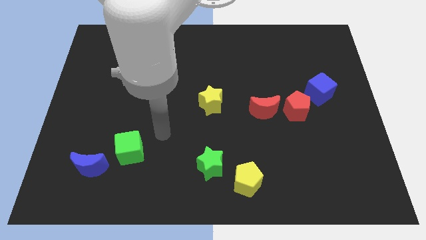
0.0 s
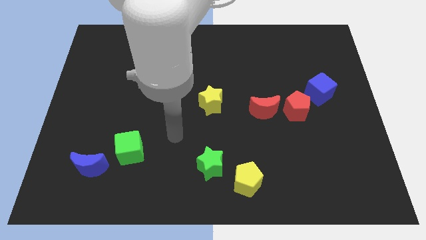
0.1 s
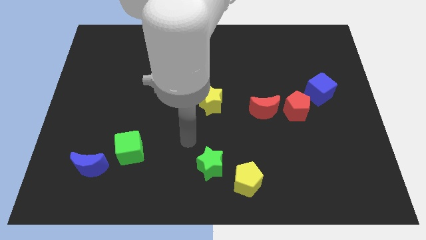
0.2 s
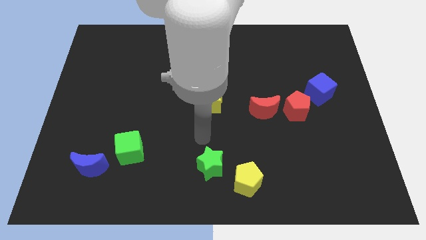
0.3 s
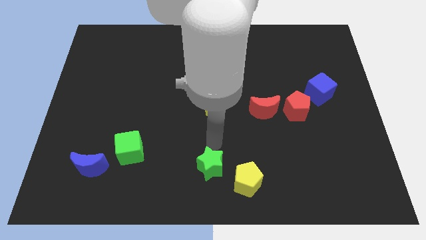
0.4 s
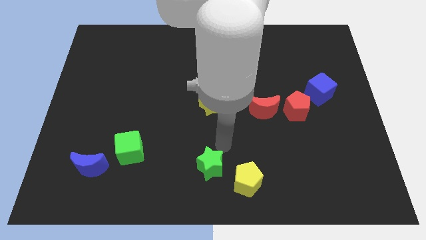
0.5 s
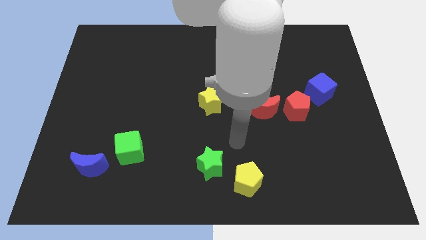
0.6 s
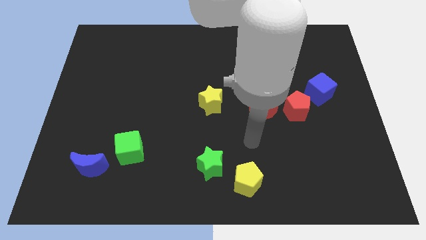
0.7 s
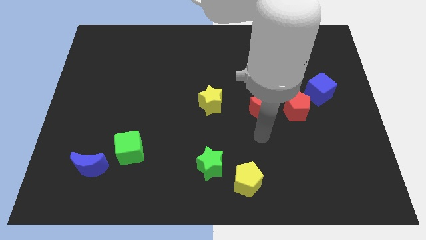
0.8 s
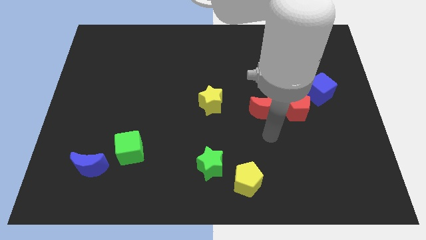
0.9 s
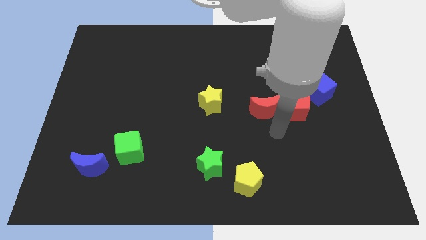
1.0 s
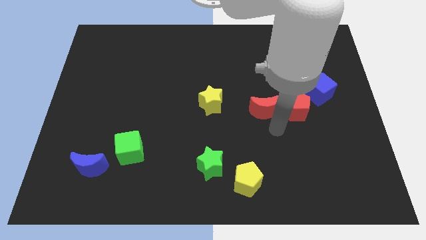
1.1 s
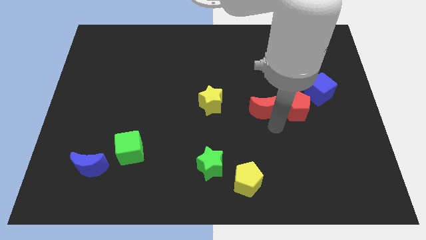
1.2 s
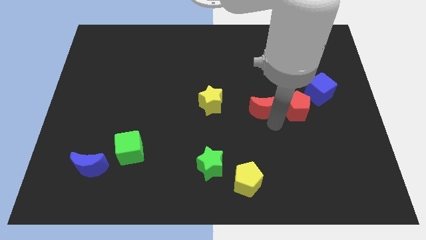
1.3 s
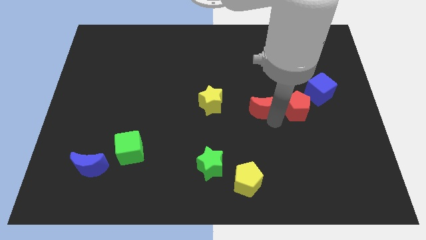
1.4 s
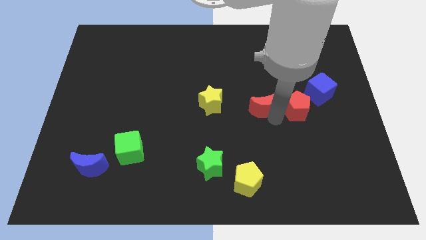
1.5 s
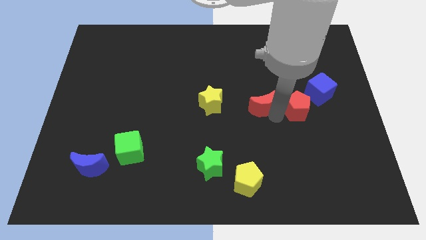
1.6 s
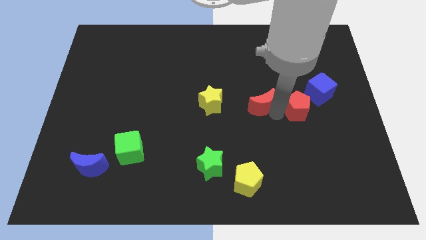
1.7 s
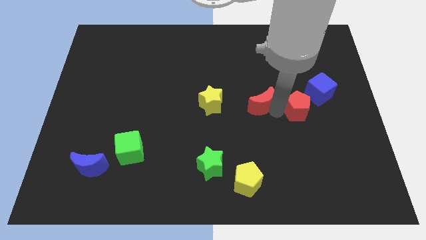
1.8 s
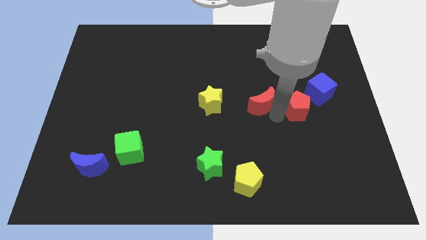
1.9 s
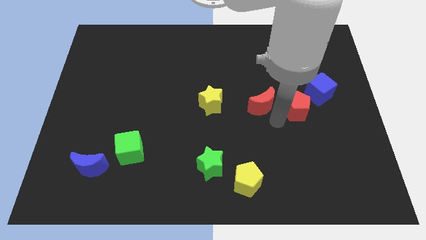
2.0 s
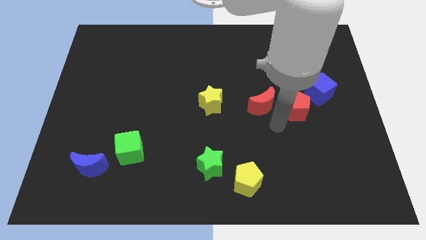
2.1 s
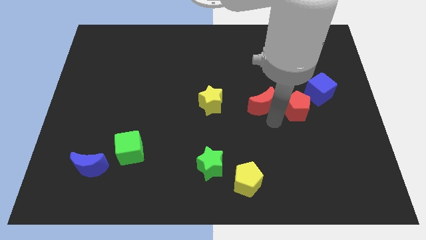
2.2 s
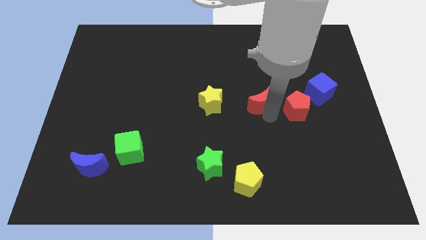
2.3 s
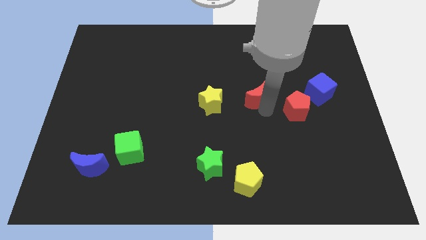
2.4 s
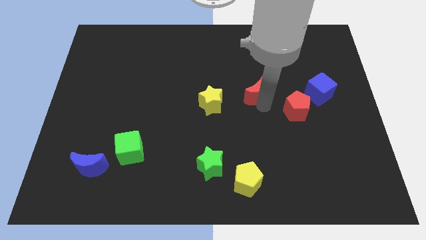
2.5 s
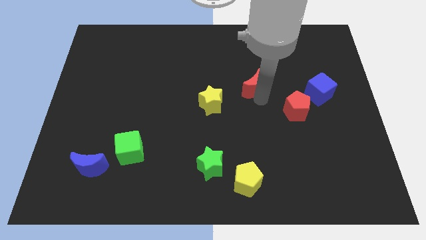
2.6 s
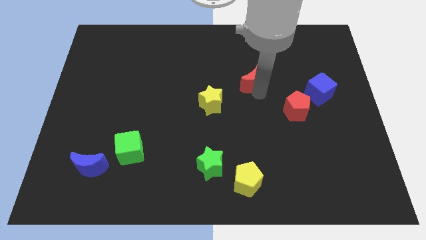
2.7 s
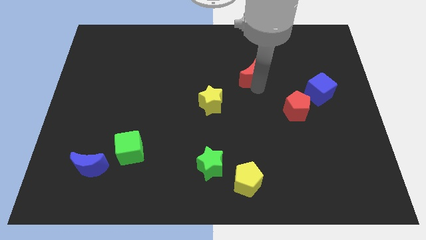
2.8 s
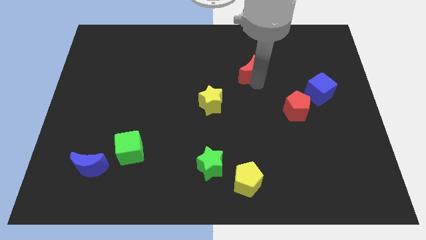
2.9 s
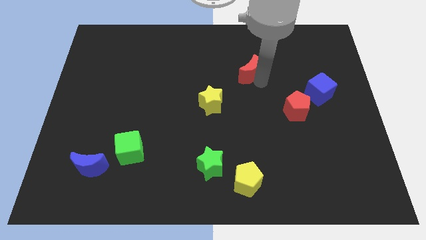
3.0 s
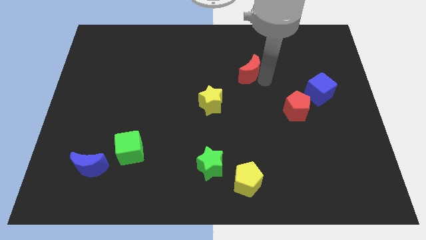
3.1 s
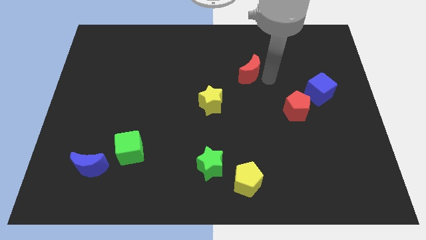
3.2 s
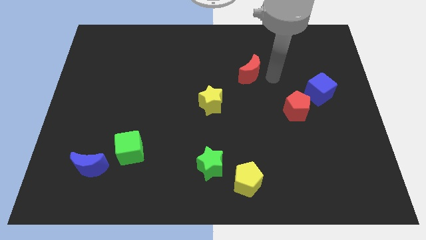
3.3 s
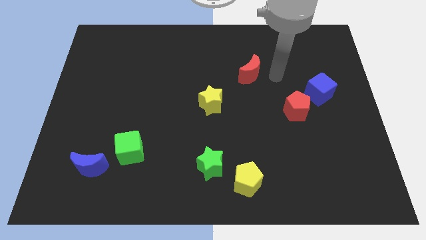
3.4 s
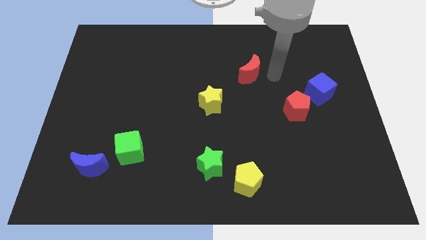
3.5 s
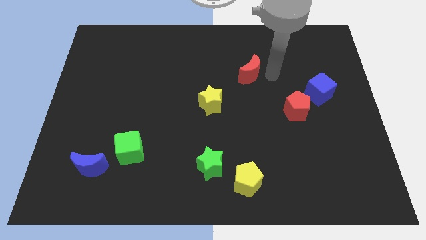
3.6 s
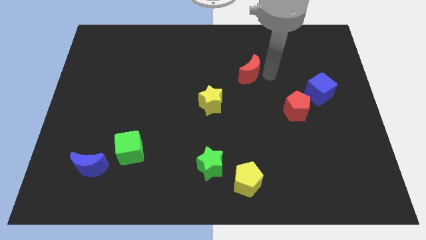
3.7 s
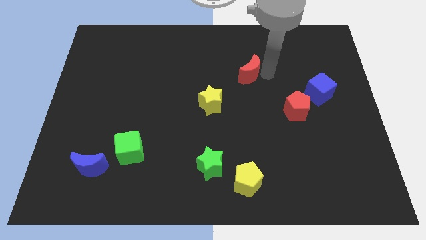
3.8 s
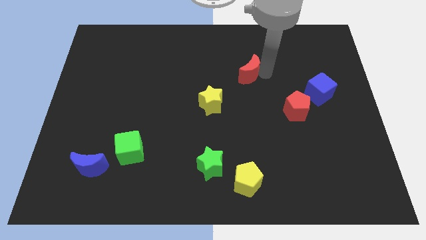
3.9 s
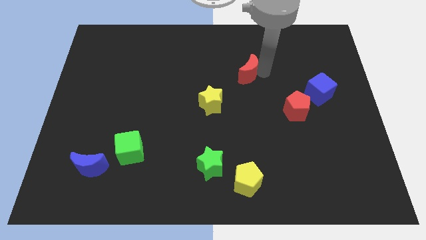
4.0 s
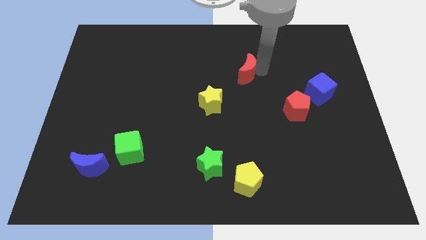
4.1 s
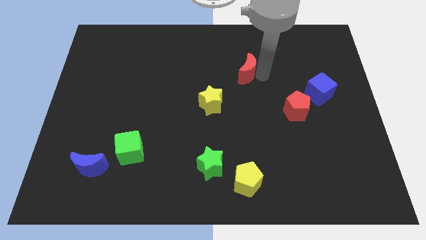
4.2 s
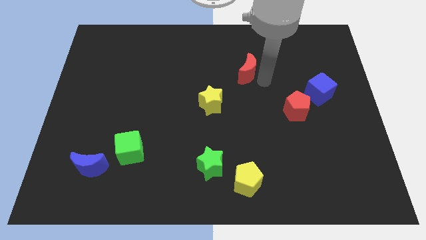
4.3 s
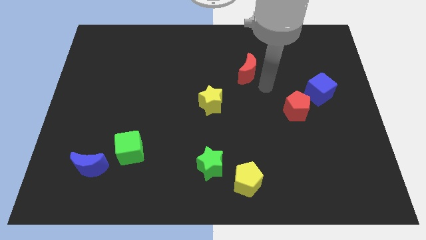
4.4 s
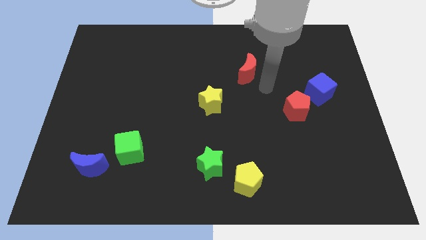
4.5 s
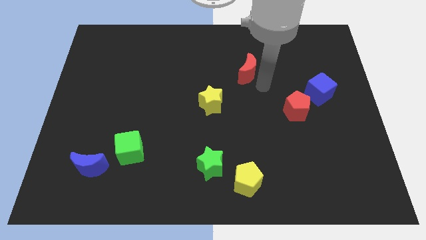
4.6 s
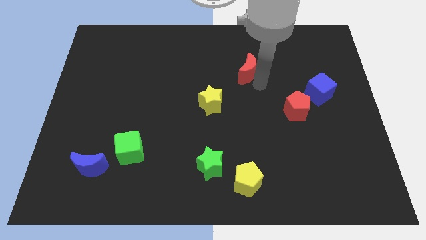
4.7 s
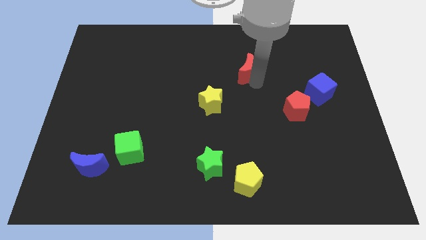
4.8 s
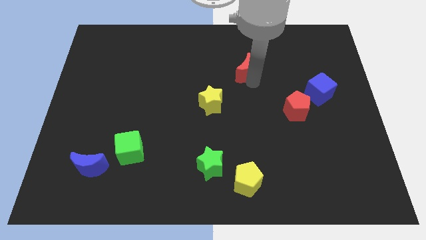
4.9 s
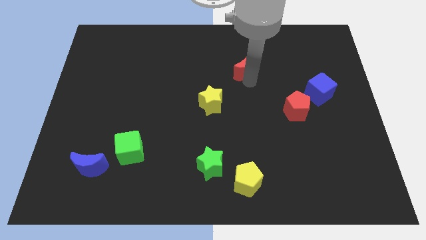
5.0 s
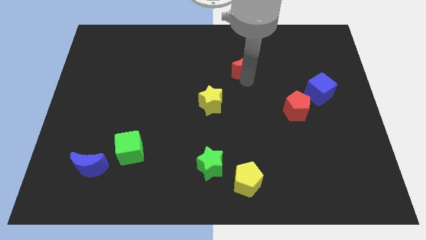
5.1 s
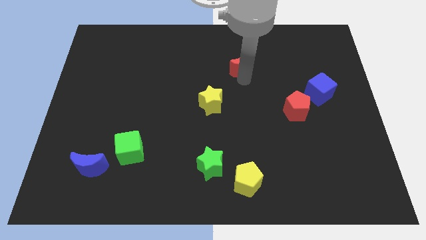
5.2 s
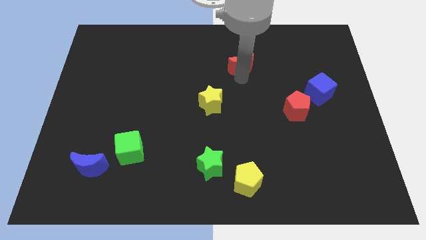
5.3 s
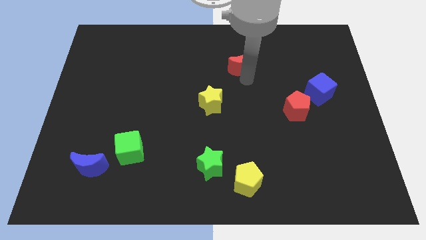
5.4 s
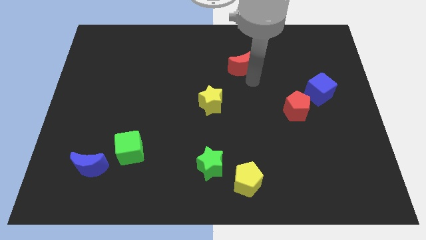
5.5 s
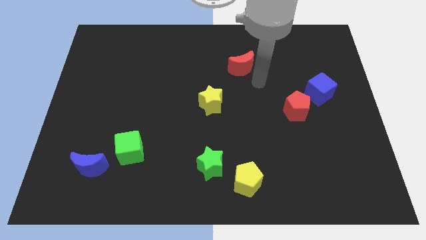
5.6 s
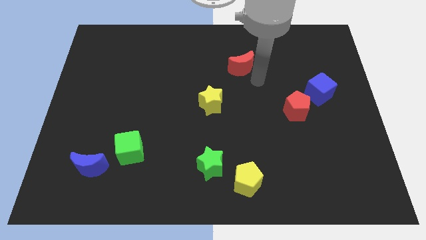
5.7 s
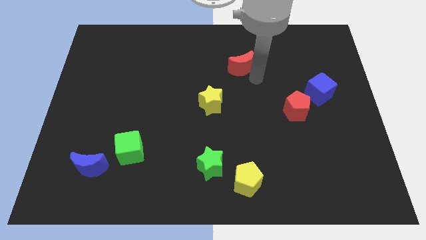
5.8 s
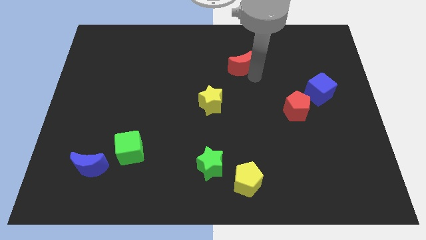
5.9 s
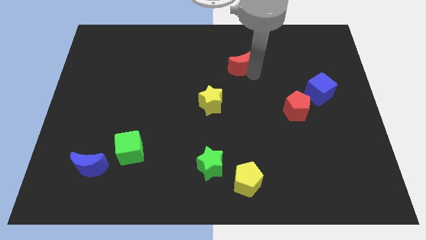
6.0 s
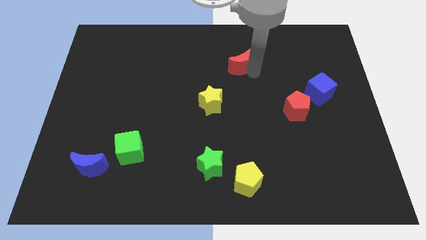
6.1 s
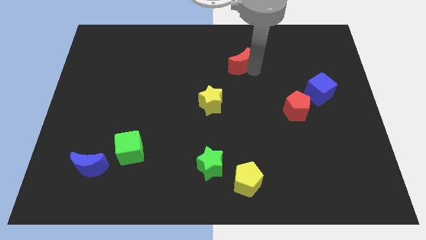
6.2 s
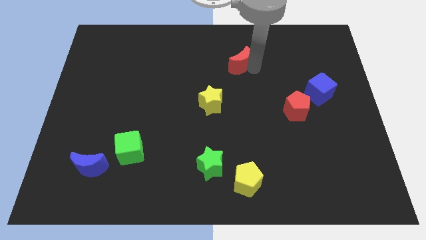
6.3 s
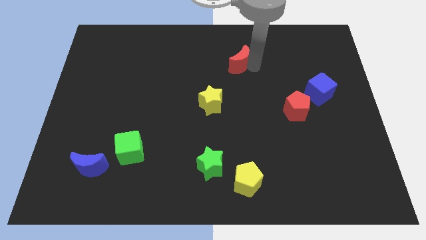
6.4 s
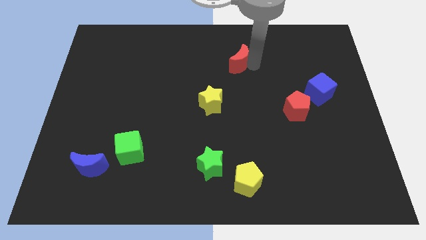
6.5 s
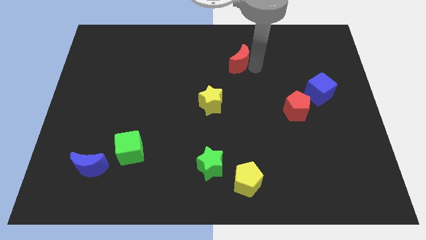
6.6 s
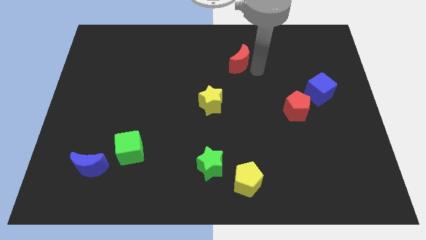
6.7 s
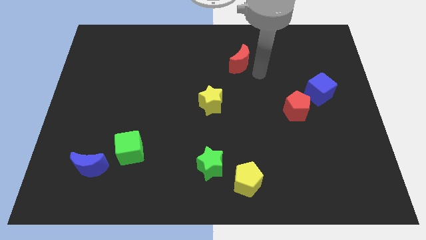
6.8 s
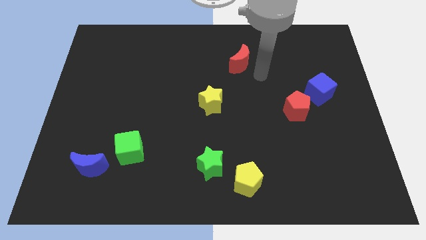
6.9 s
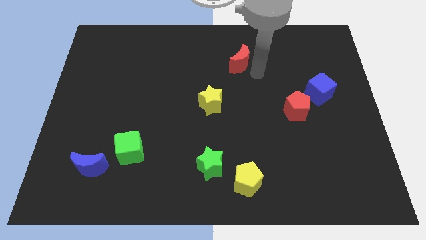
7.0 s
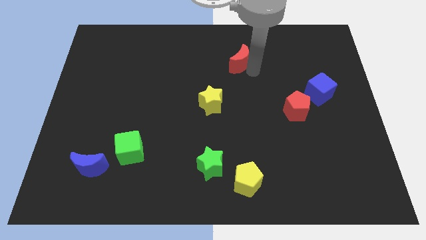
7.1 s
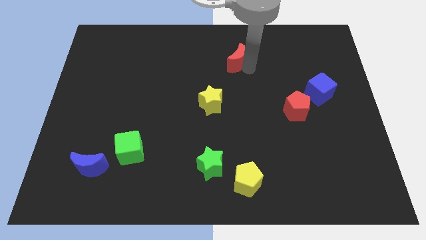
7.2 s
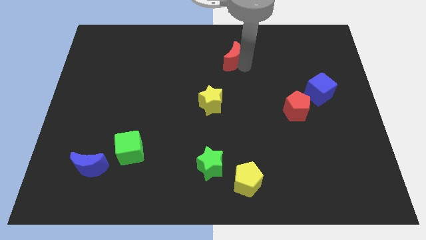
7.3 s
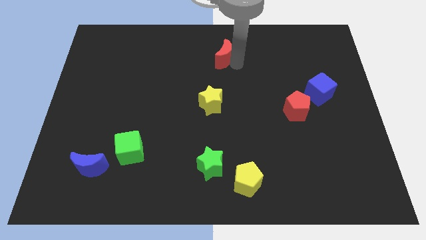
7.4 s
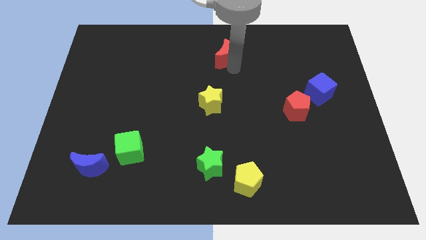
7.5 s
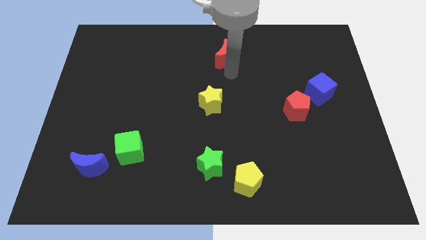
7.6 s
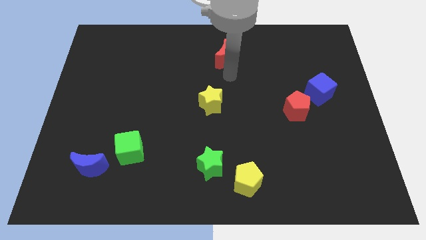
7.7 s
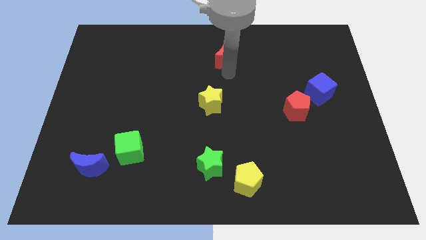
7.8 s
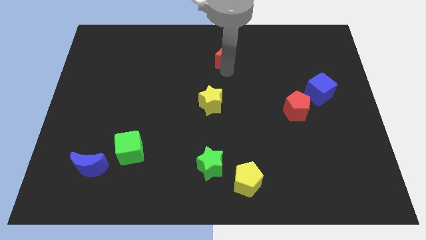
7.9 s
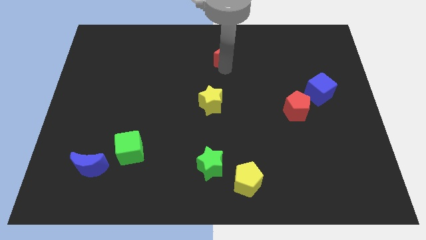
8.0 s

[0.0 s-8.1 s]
slide the red moon to the top side
